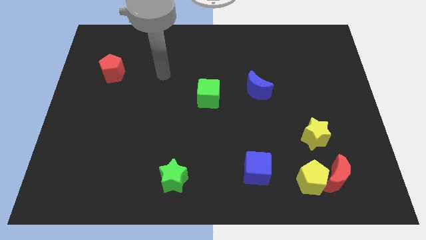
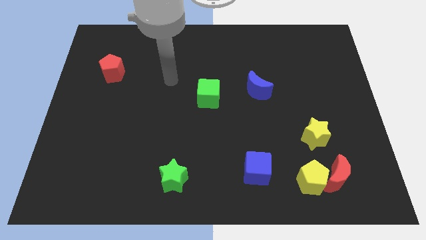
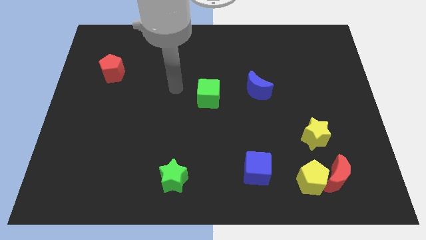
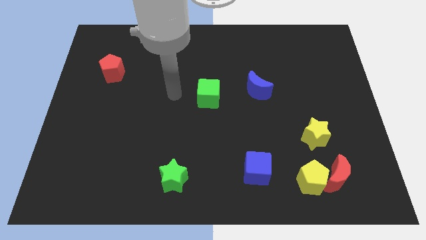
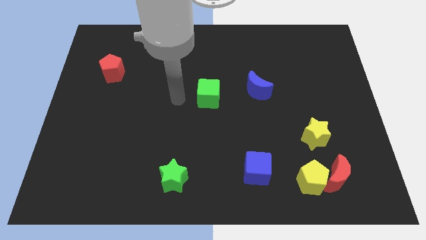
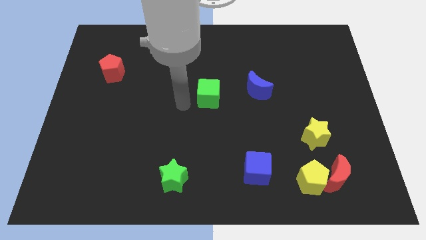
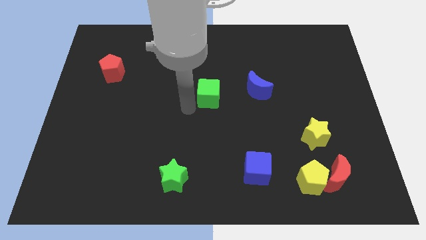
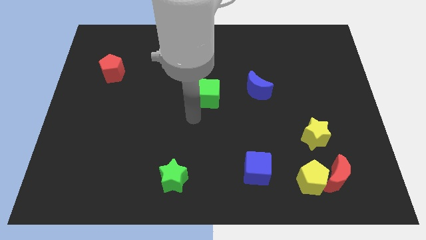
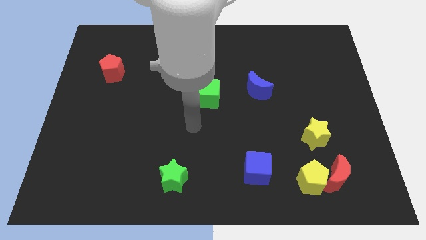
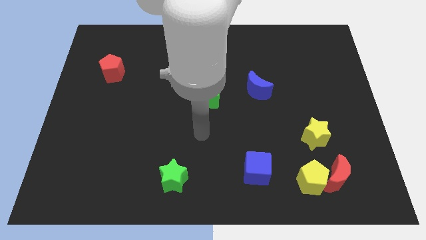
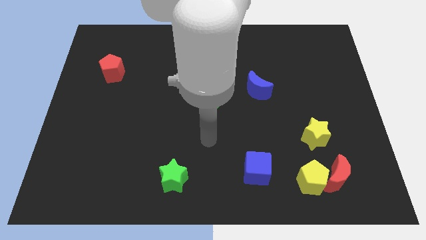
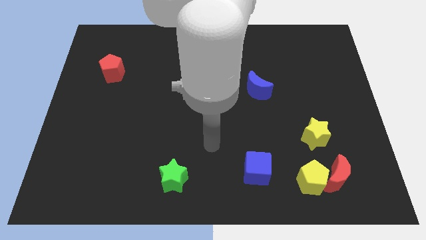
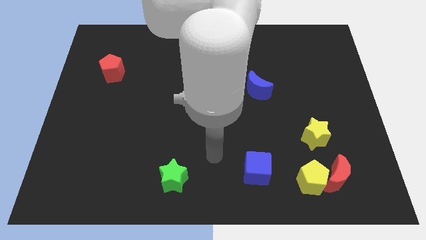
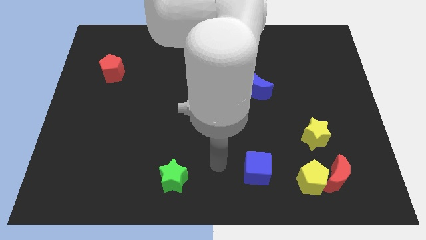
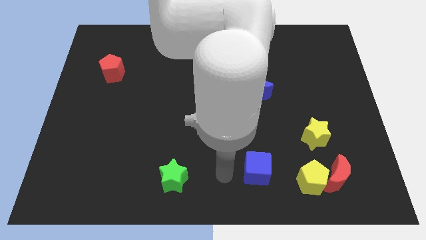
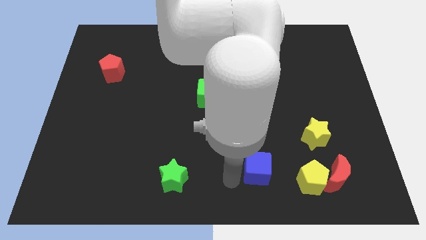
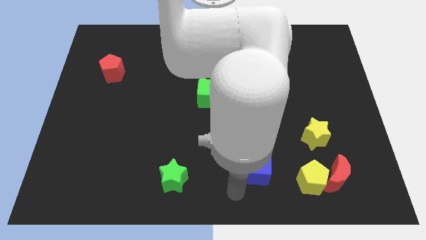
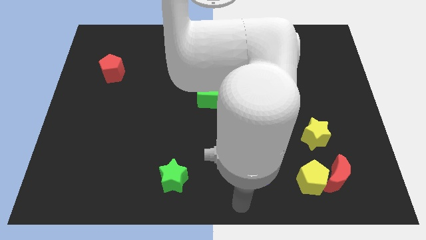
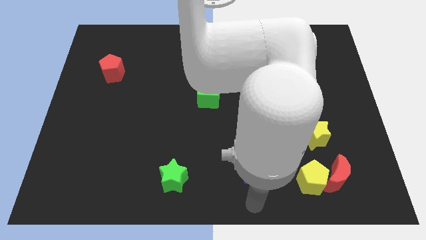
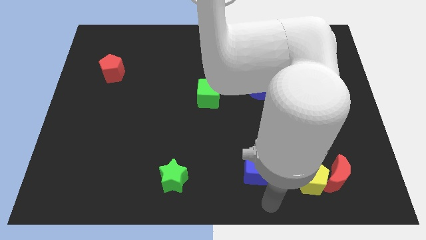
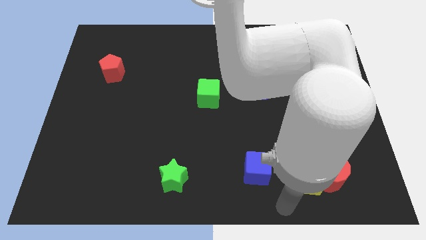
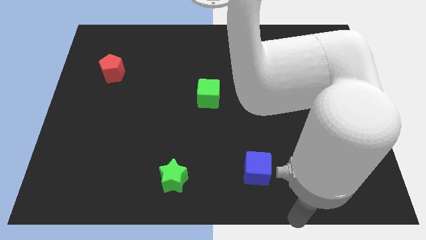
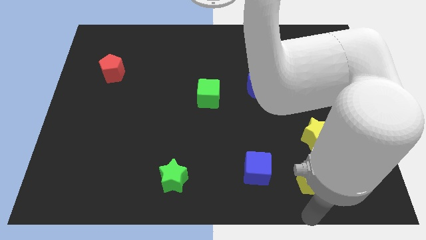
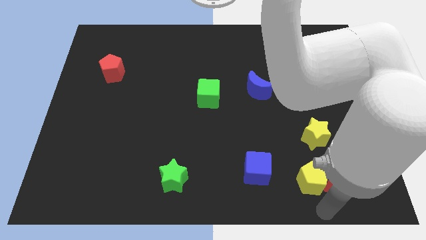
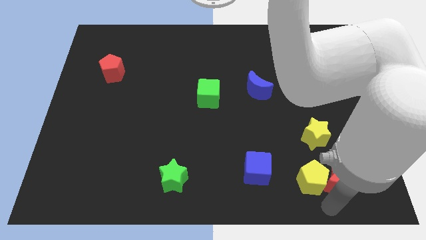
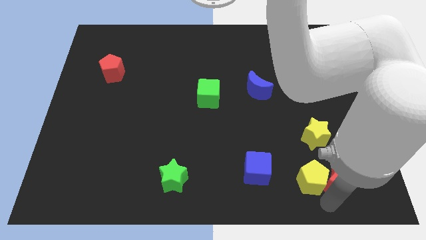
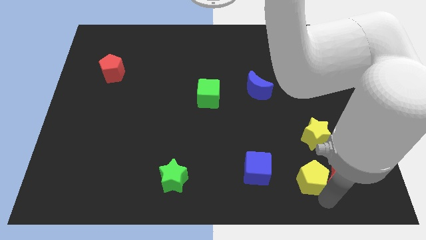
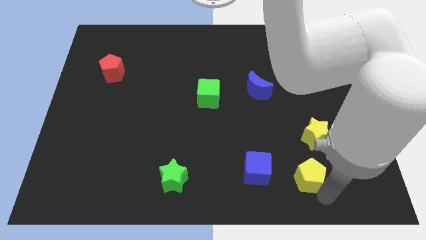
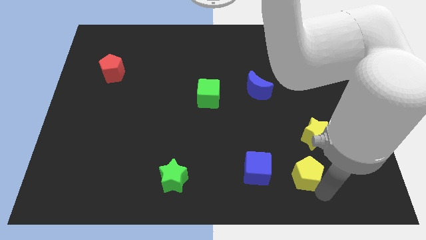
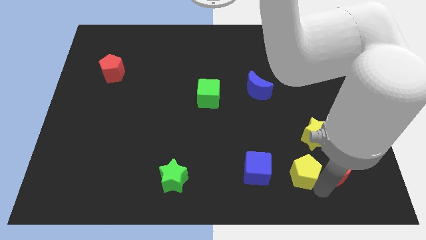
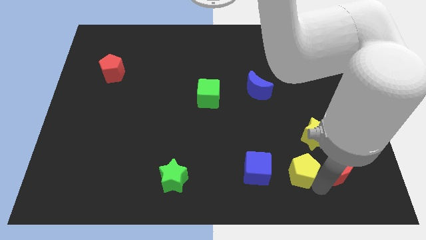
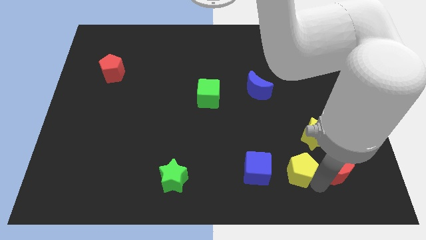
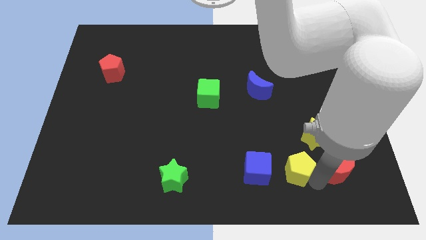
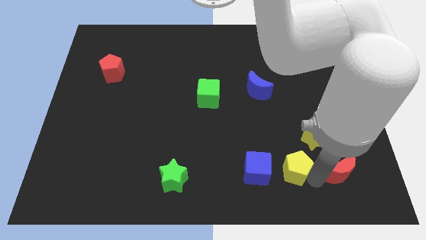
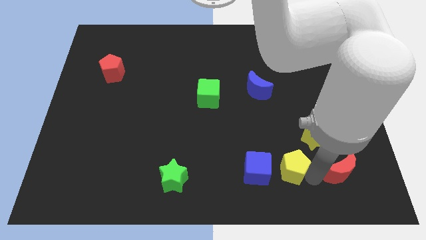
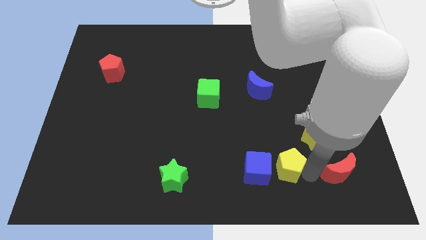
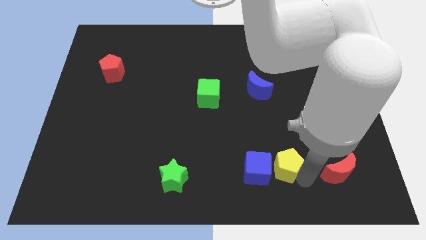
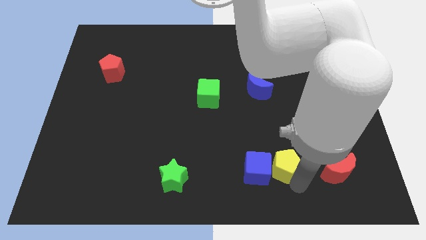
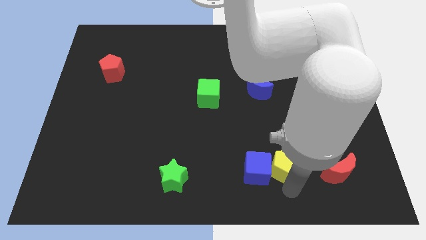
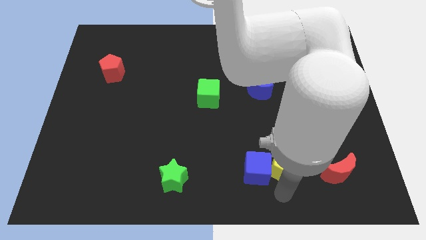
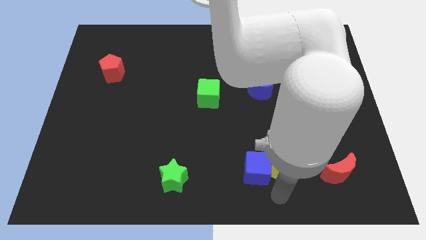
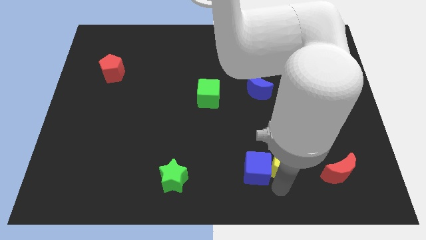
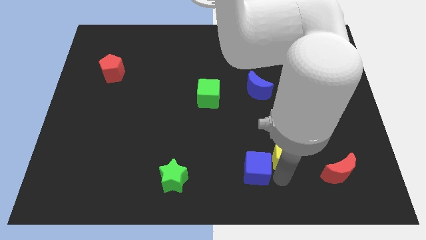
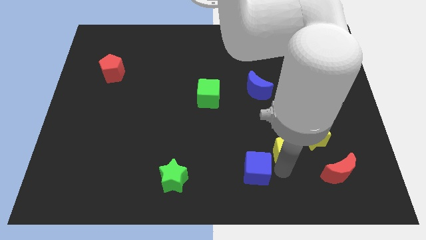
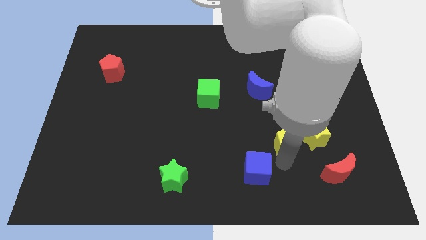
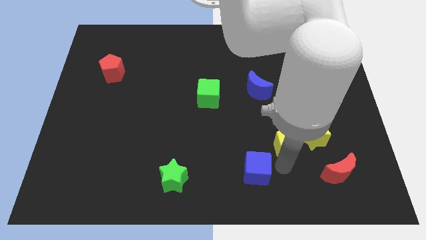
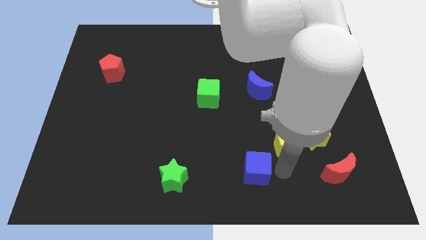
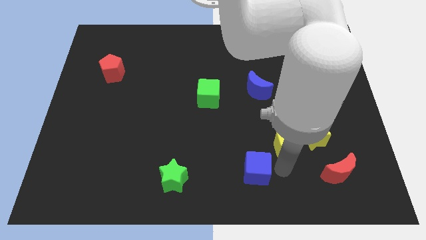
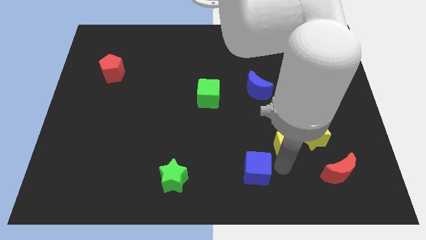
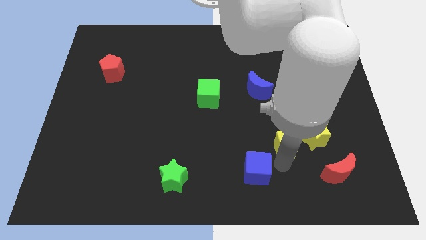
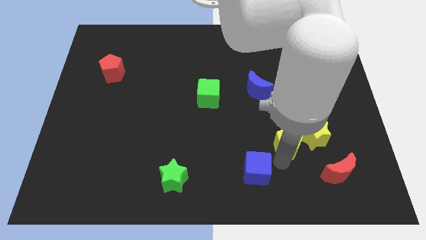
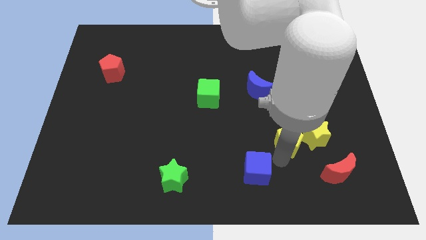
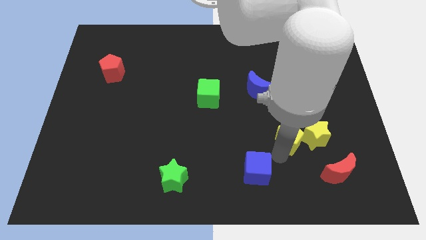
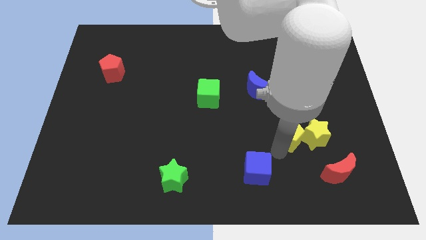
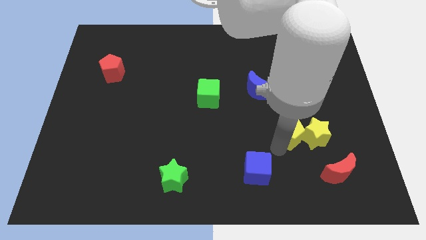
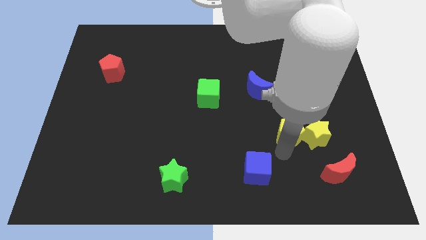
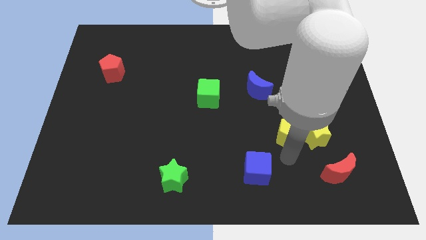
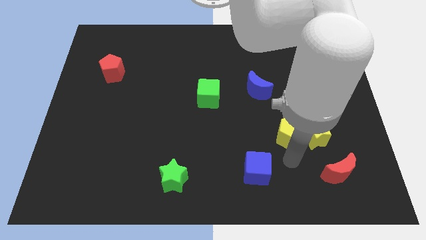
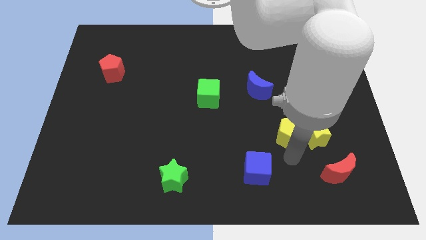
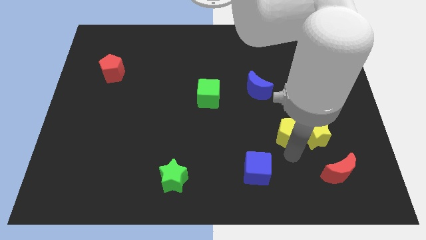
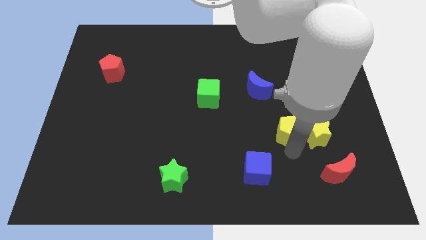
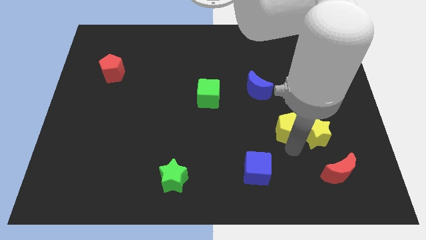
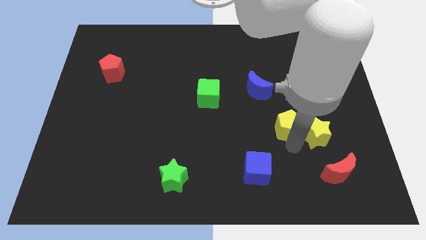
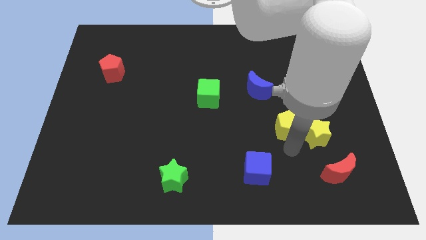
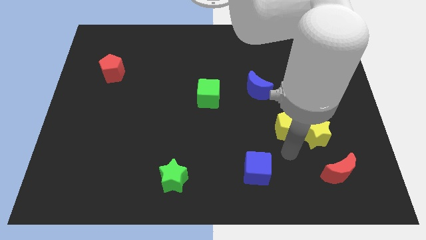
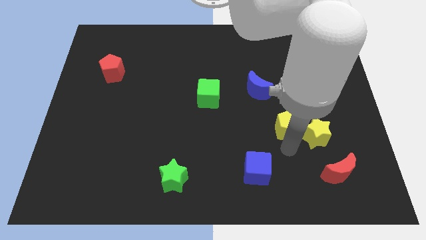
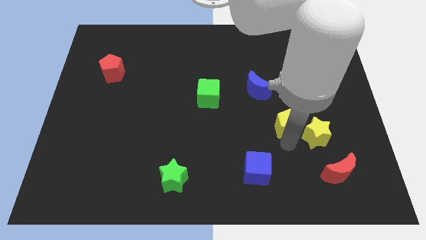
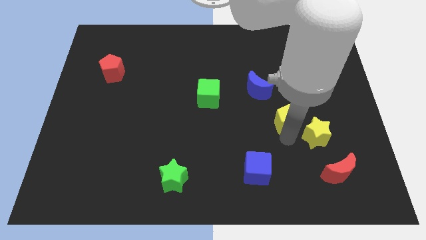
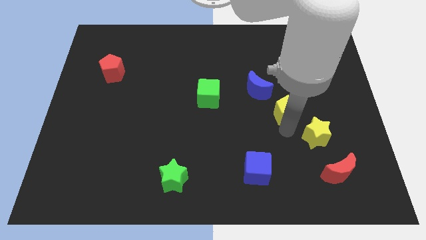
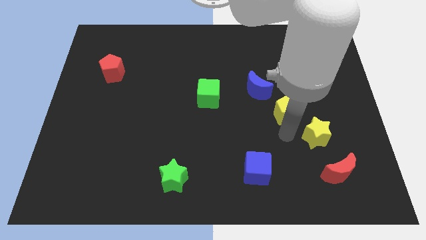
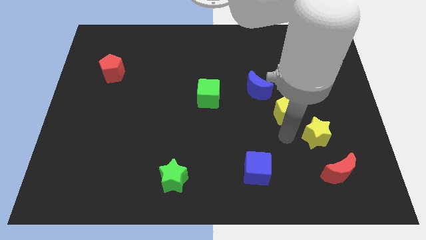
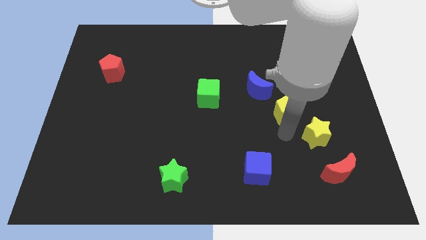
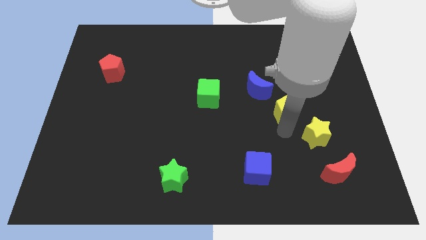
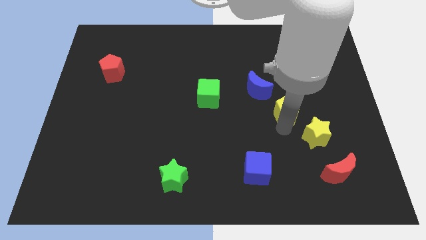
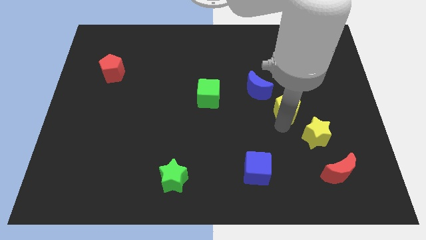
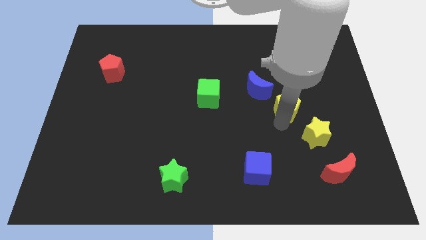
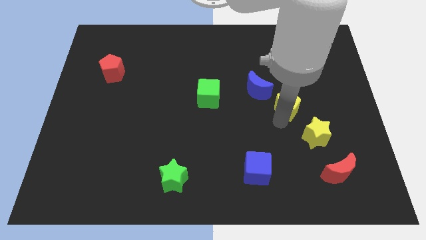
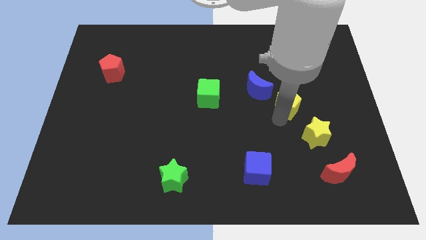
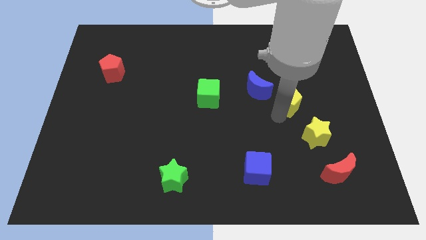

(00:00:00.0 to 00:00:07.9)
push the yellow pentagon up
